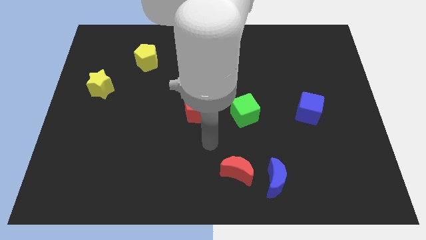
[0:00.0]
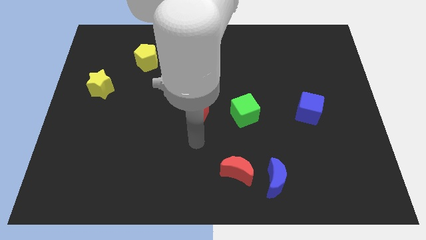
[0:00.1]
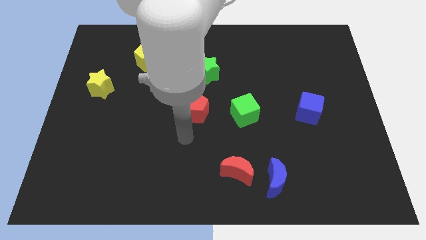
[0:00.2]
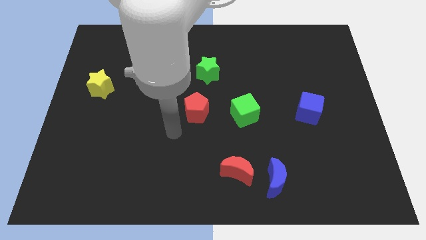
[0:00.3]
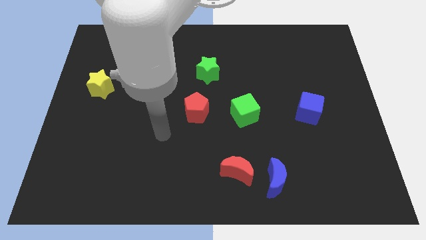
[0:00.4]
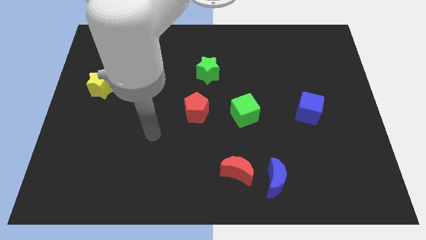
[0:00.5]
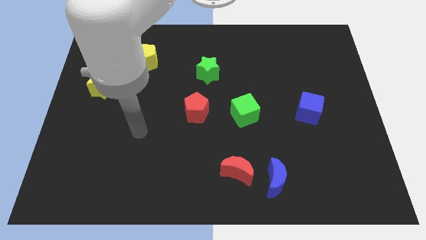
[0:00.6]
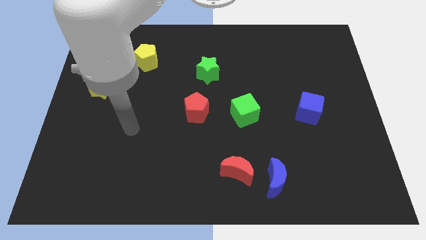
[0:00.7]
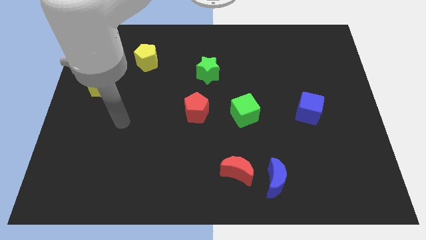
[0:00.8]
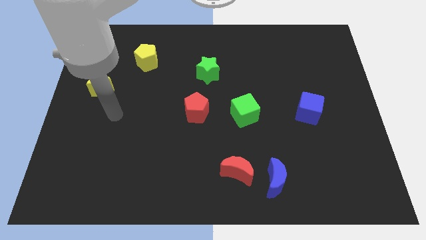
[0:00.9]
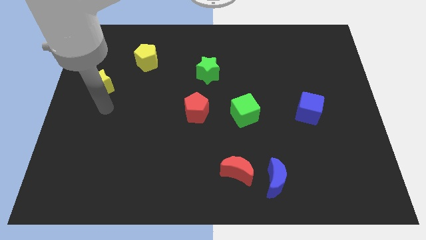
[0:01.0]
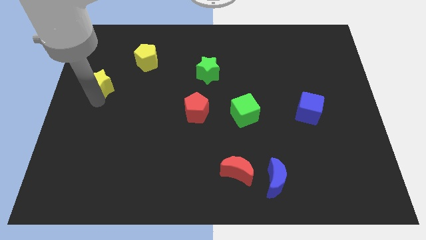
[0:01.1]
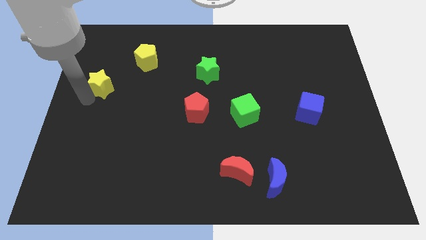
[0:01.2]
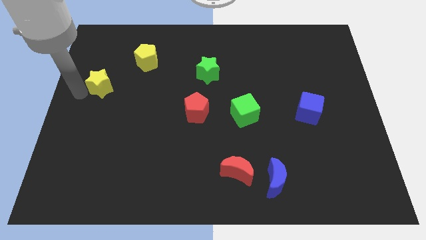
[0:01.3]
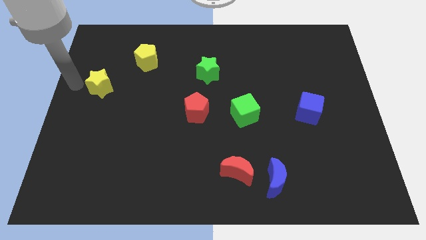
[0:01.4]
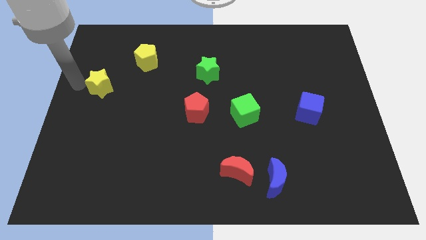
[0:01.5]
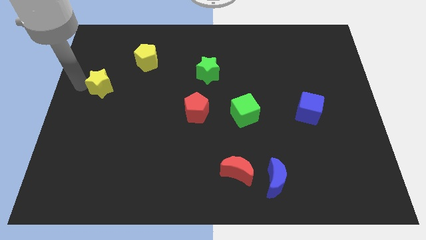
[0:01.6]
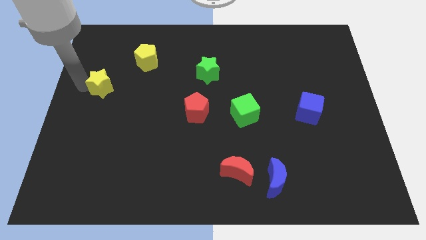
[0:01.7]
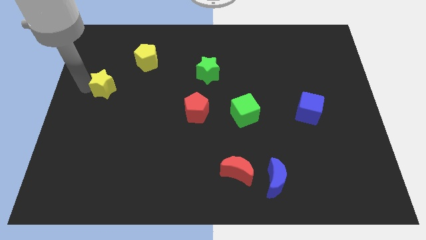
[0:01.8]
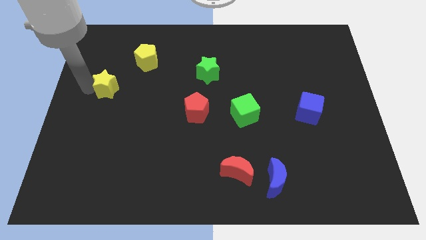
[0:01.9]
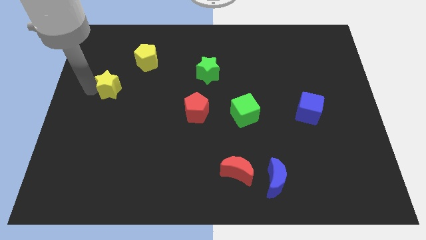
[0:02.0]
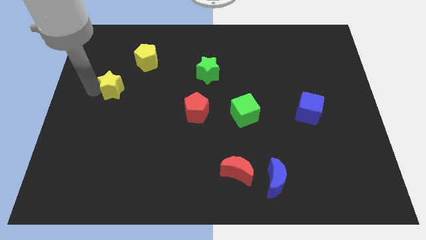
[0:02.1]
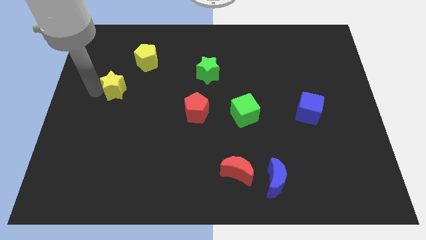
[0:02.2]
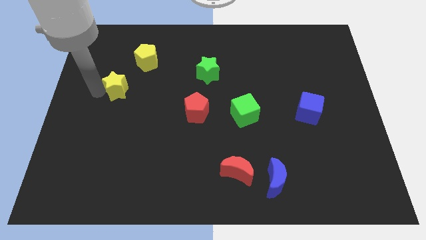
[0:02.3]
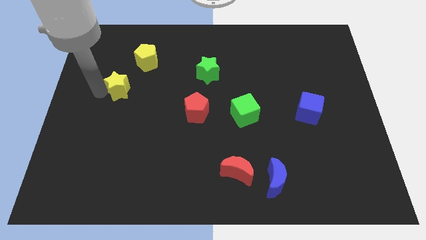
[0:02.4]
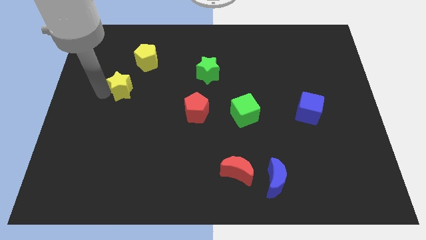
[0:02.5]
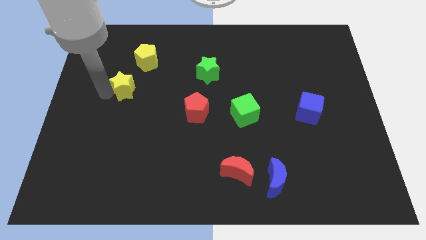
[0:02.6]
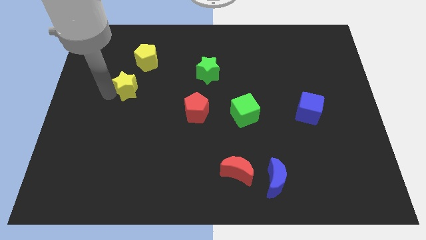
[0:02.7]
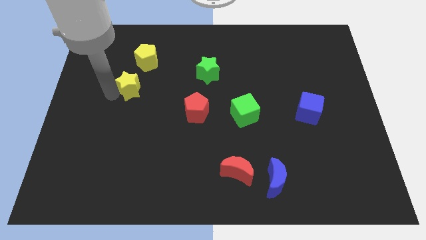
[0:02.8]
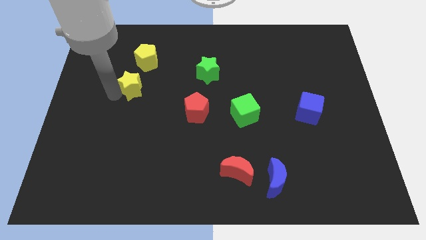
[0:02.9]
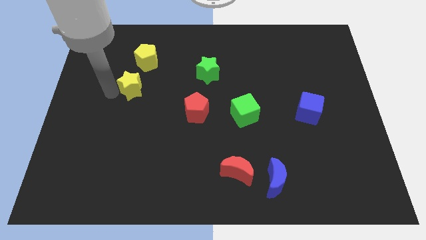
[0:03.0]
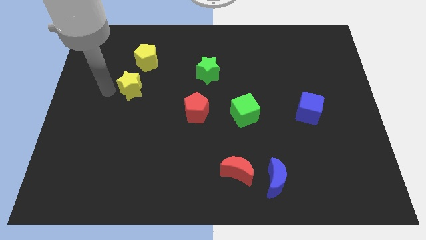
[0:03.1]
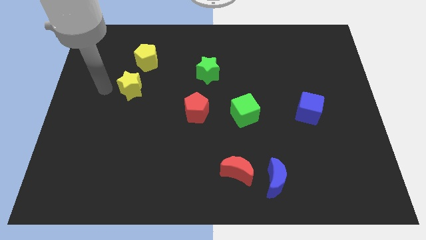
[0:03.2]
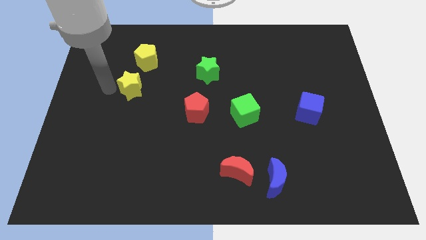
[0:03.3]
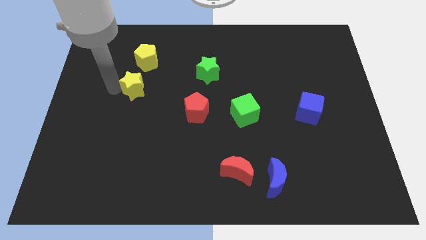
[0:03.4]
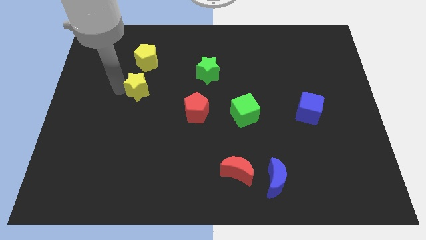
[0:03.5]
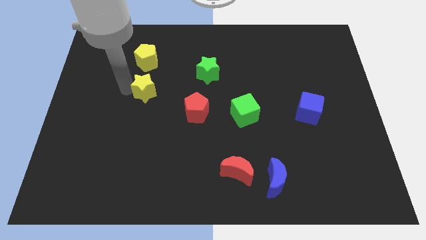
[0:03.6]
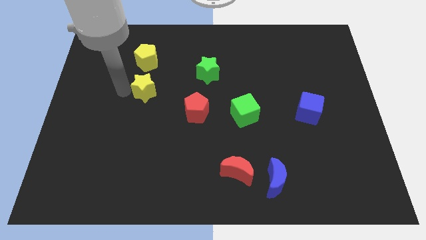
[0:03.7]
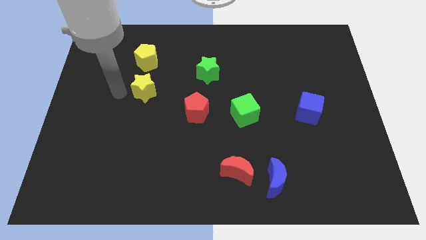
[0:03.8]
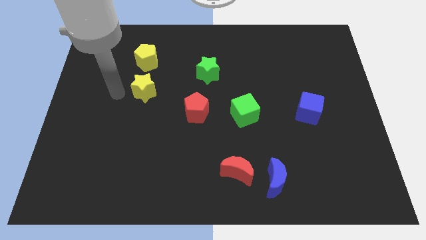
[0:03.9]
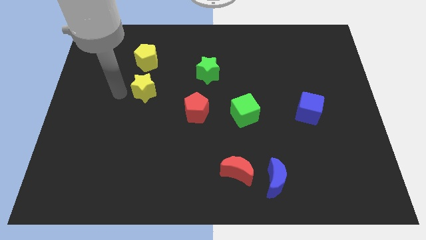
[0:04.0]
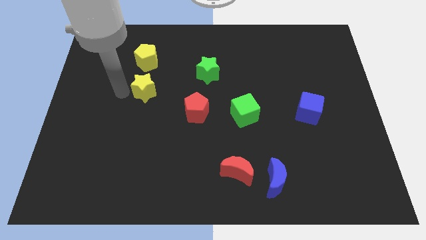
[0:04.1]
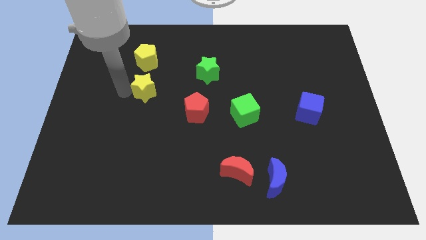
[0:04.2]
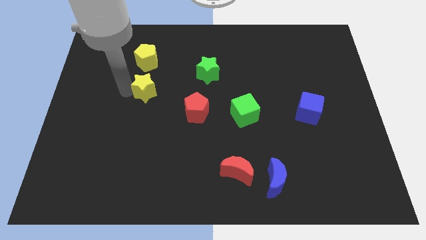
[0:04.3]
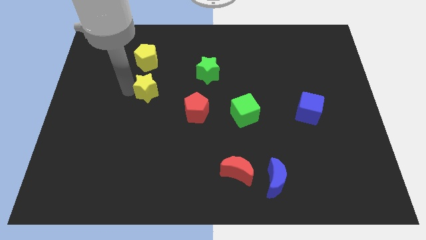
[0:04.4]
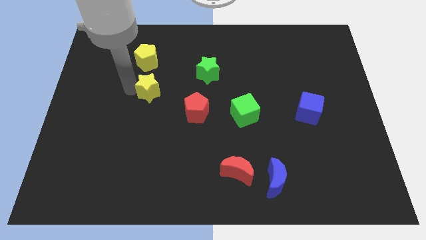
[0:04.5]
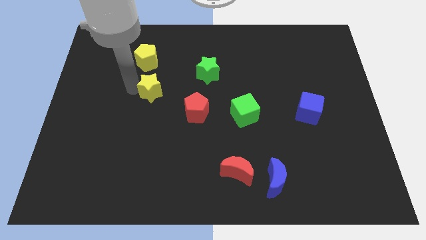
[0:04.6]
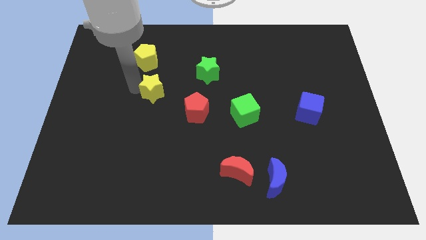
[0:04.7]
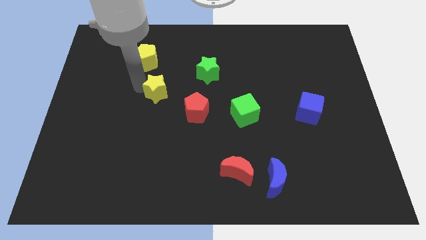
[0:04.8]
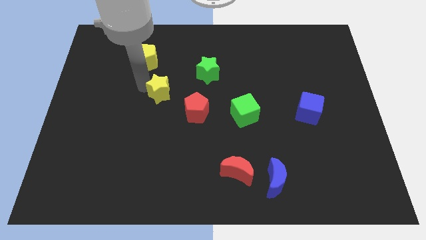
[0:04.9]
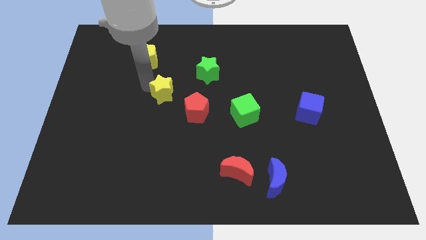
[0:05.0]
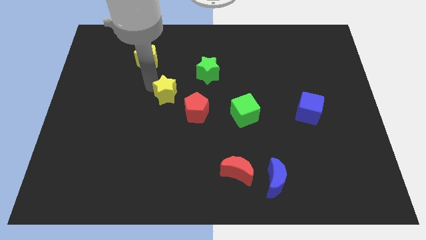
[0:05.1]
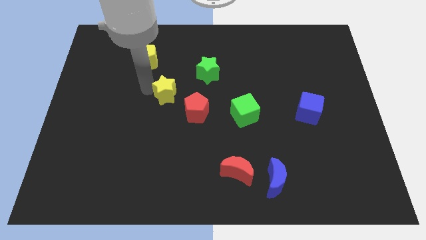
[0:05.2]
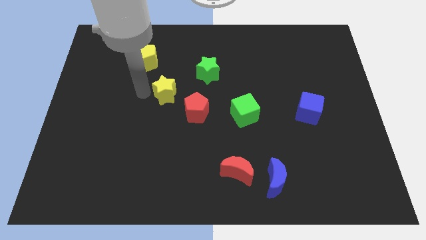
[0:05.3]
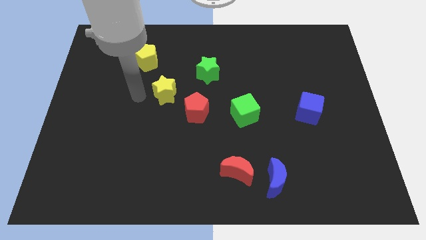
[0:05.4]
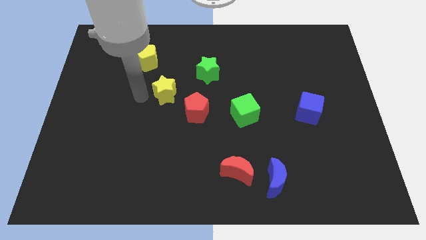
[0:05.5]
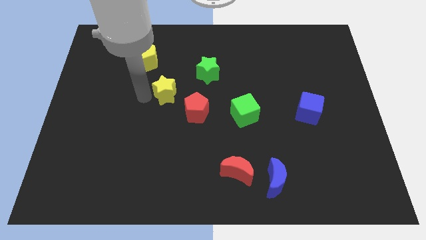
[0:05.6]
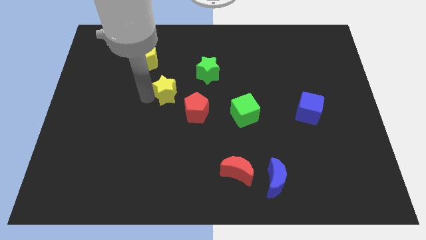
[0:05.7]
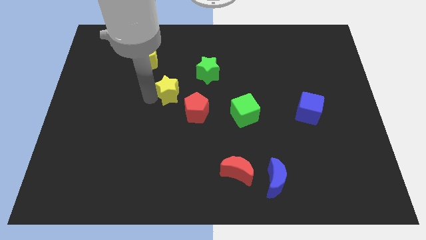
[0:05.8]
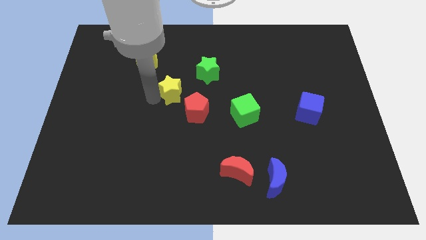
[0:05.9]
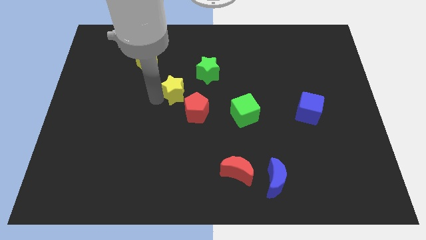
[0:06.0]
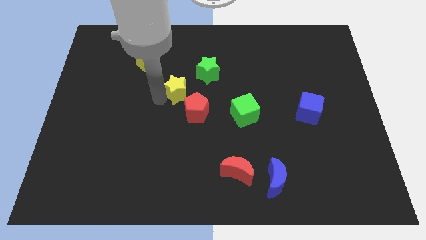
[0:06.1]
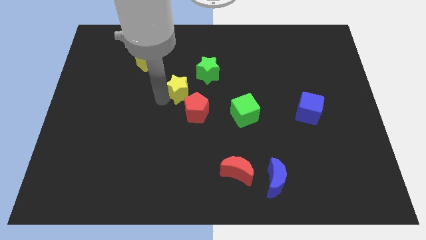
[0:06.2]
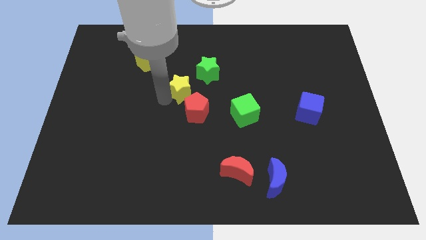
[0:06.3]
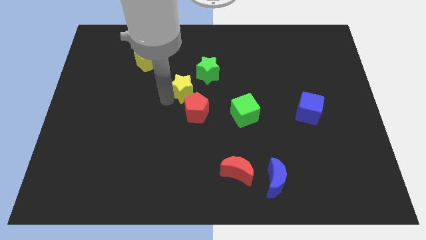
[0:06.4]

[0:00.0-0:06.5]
move the yellow star to the right

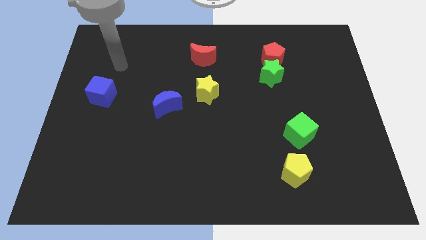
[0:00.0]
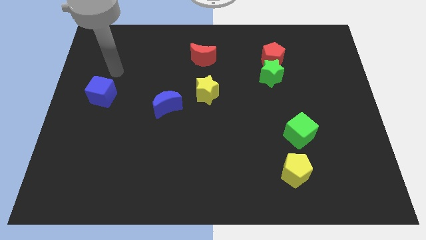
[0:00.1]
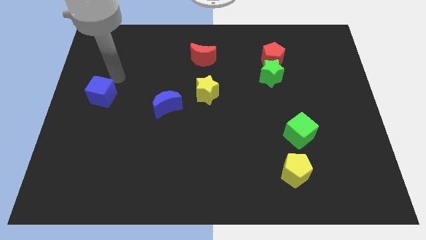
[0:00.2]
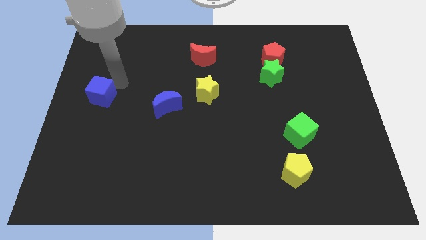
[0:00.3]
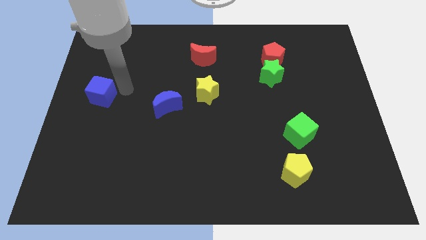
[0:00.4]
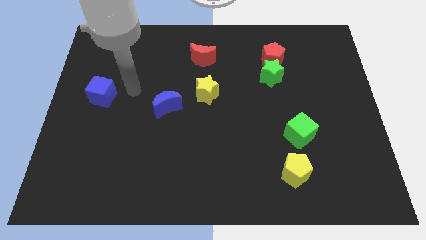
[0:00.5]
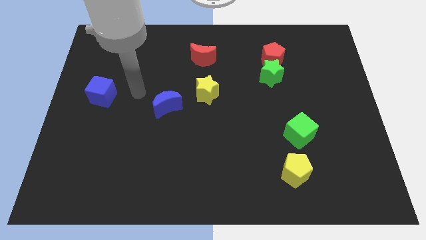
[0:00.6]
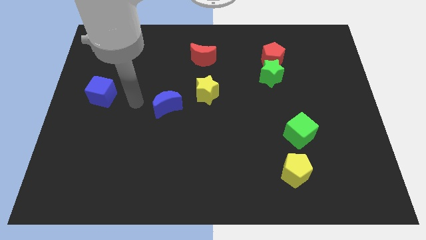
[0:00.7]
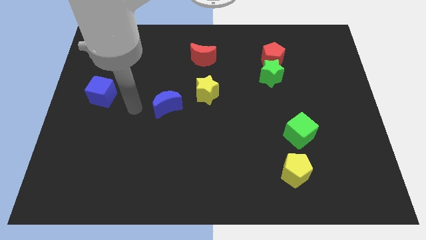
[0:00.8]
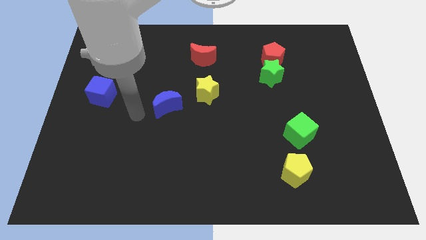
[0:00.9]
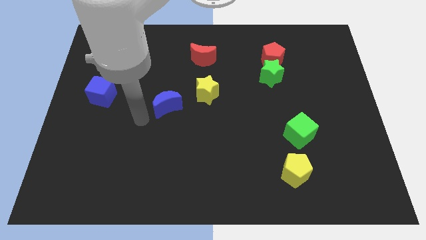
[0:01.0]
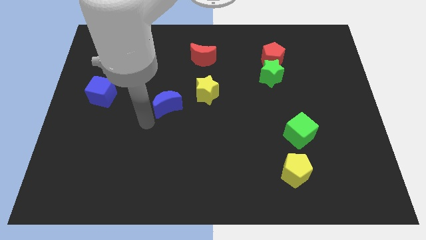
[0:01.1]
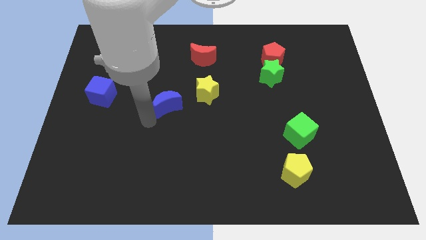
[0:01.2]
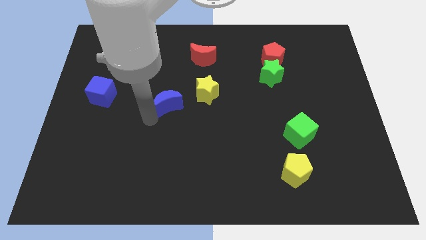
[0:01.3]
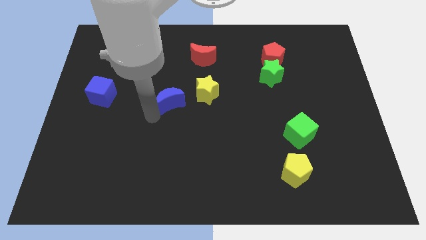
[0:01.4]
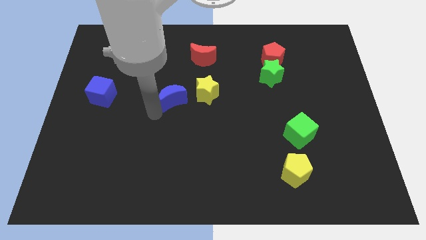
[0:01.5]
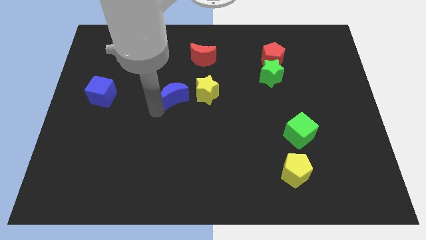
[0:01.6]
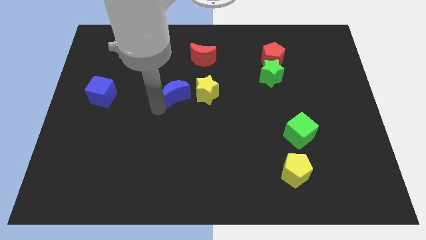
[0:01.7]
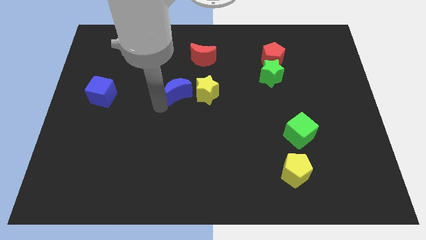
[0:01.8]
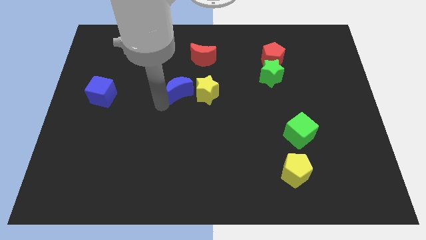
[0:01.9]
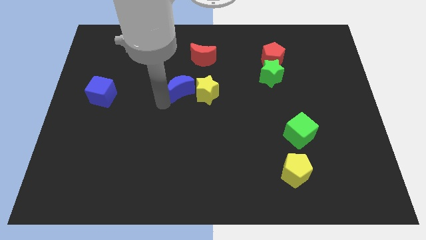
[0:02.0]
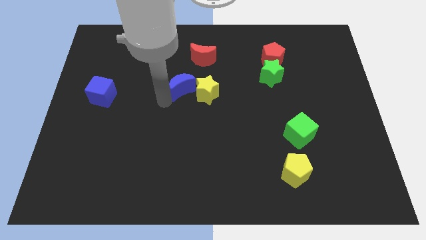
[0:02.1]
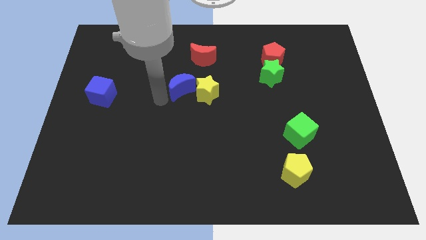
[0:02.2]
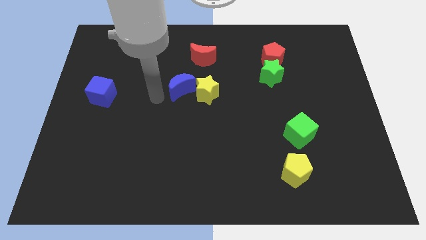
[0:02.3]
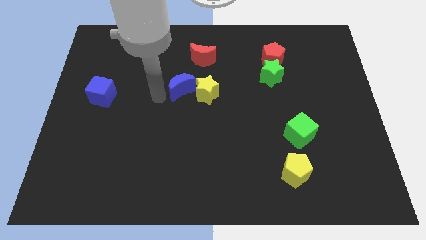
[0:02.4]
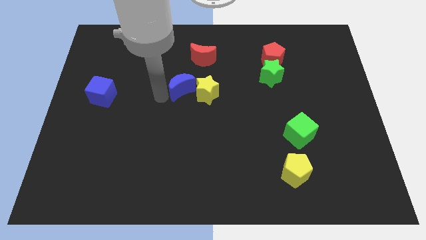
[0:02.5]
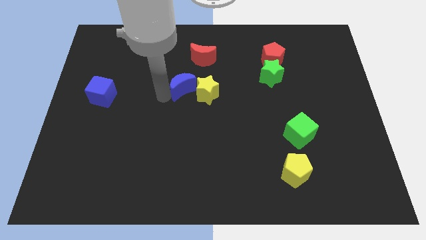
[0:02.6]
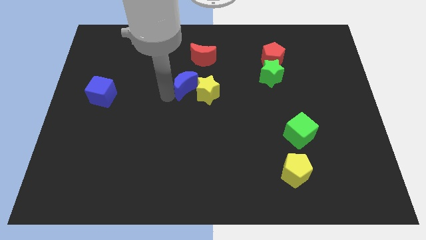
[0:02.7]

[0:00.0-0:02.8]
slightly slide the blue moon upwards and right
